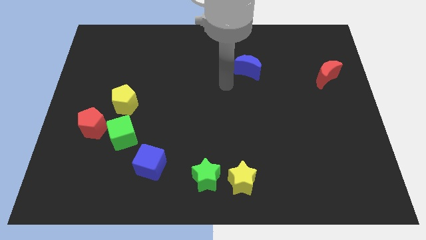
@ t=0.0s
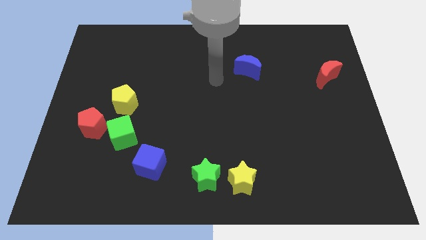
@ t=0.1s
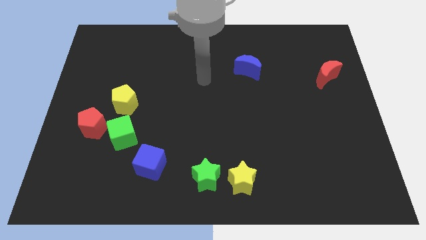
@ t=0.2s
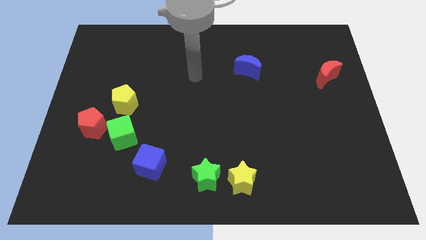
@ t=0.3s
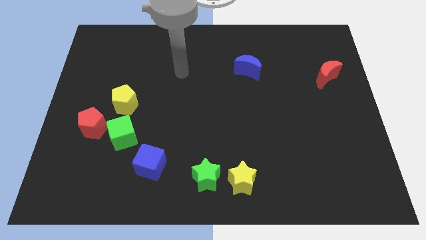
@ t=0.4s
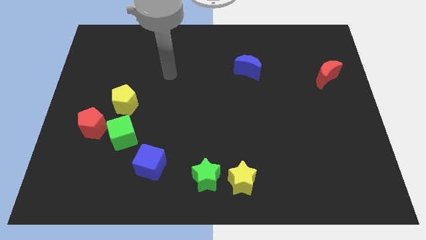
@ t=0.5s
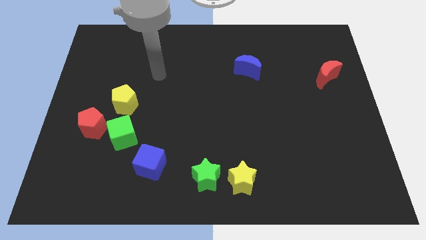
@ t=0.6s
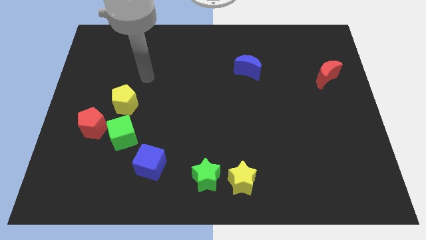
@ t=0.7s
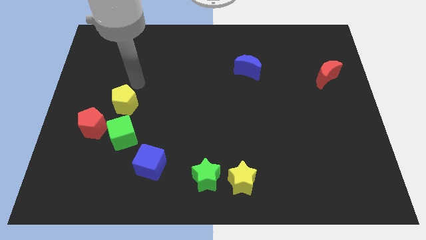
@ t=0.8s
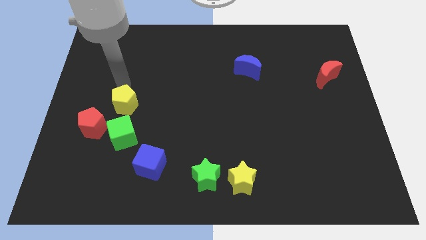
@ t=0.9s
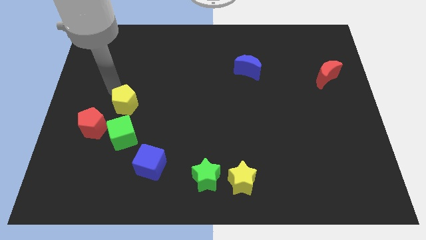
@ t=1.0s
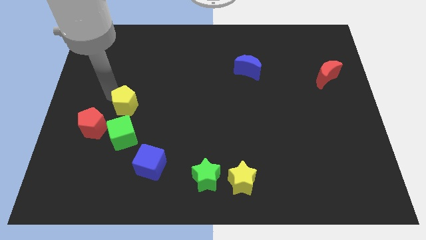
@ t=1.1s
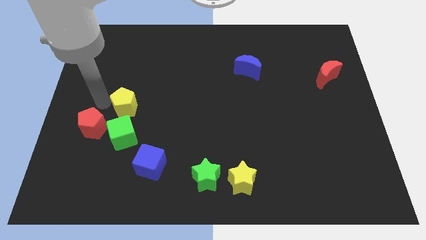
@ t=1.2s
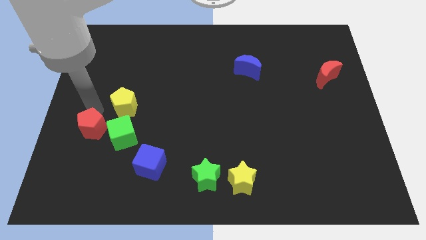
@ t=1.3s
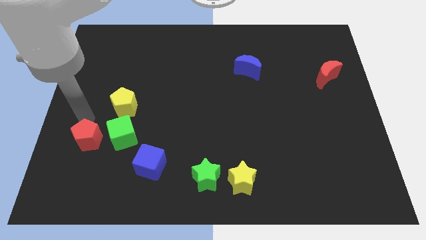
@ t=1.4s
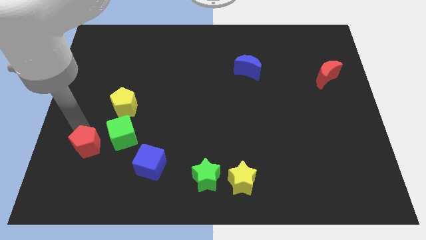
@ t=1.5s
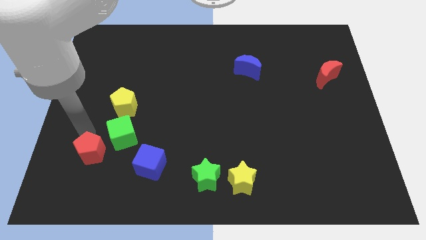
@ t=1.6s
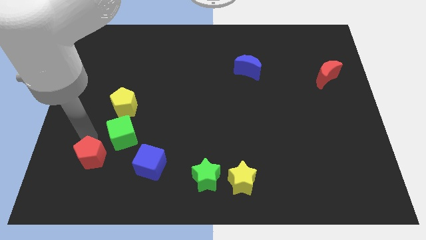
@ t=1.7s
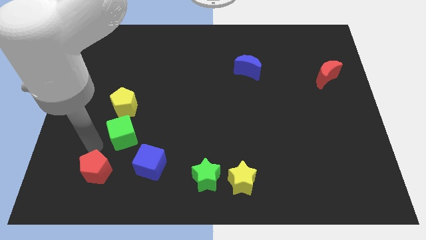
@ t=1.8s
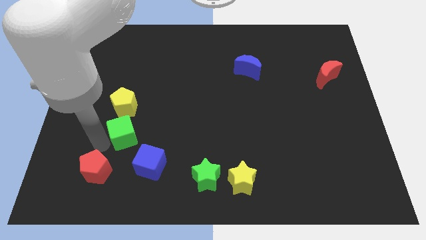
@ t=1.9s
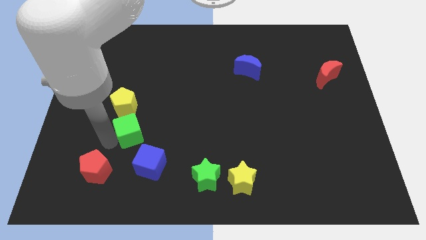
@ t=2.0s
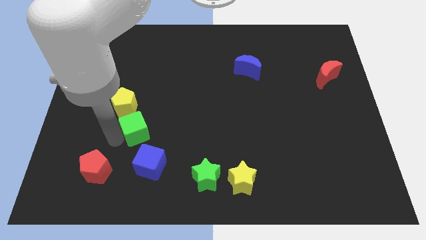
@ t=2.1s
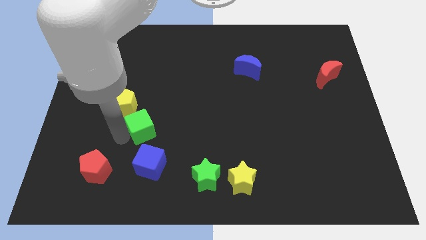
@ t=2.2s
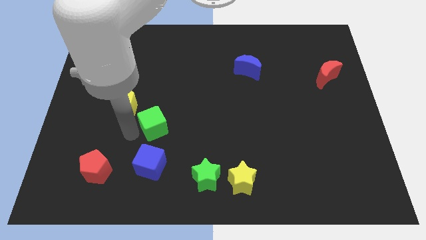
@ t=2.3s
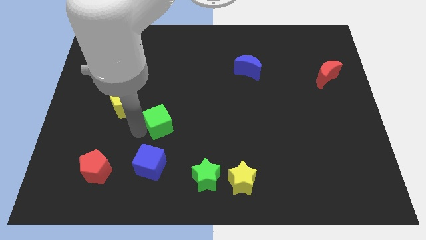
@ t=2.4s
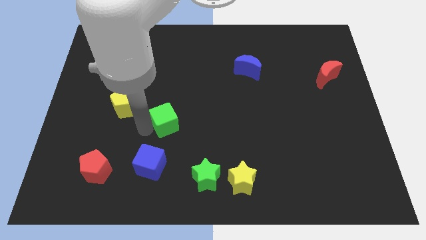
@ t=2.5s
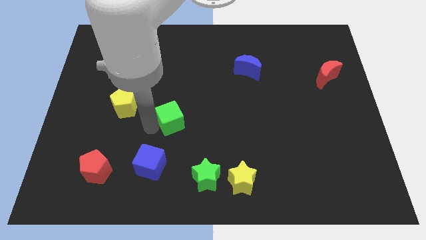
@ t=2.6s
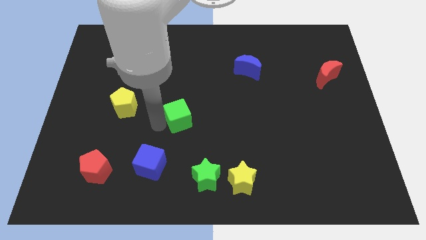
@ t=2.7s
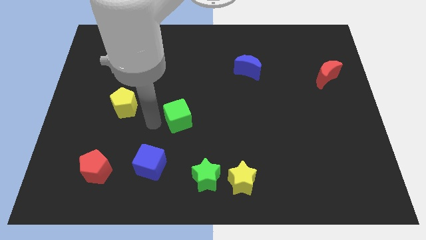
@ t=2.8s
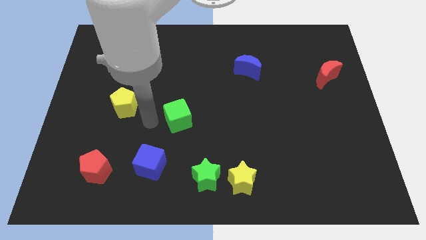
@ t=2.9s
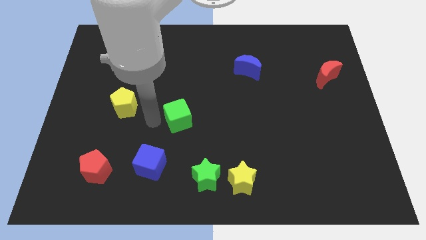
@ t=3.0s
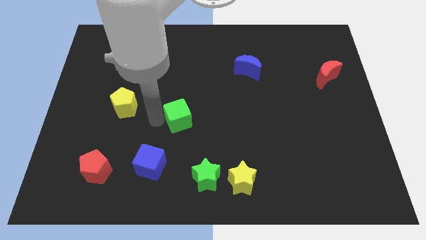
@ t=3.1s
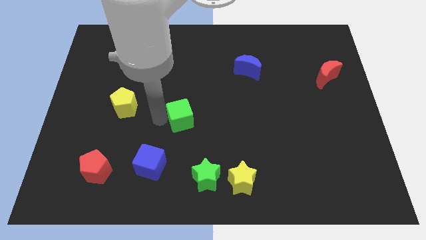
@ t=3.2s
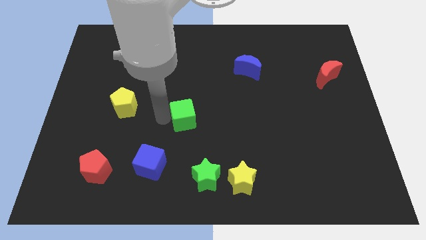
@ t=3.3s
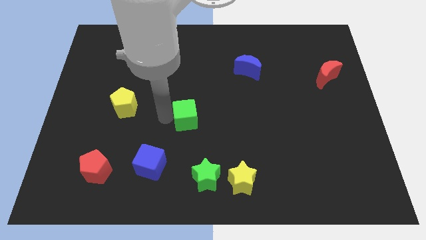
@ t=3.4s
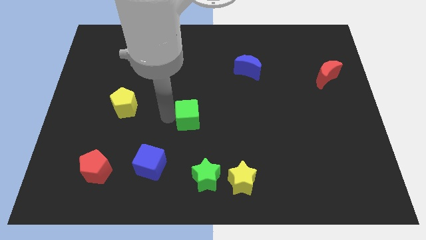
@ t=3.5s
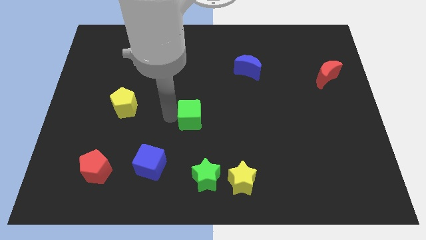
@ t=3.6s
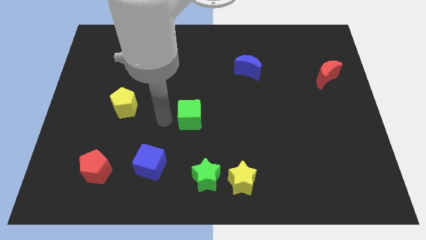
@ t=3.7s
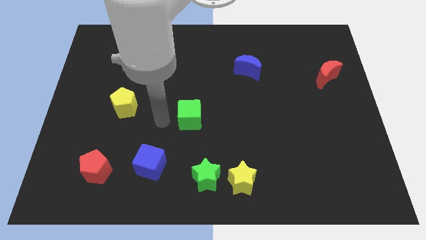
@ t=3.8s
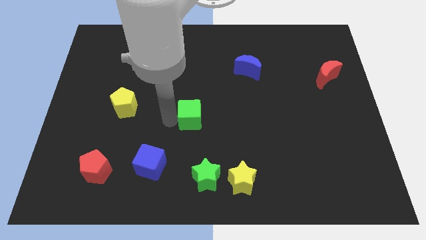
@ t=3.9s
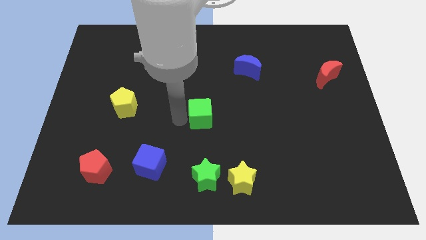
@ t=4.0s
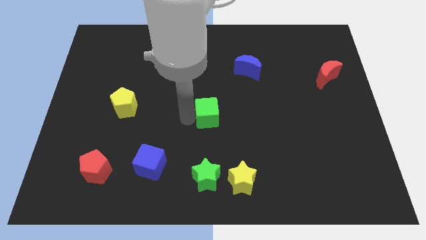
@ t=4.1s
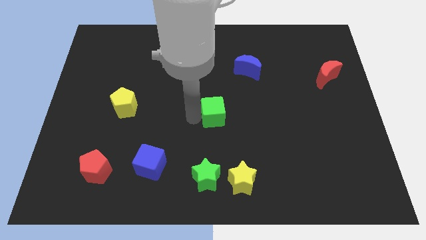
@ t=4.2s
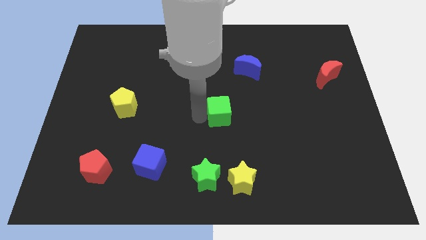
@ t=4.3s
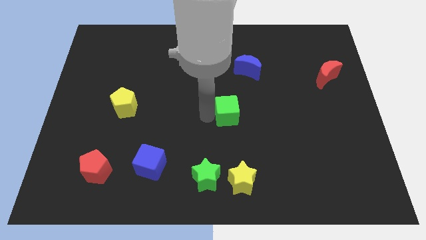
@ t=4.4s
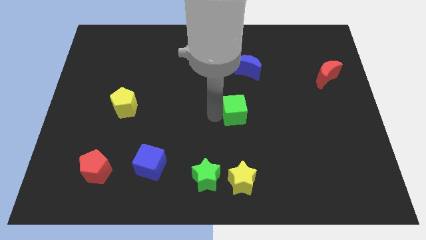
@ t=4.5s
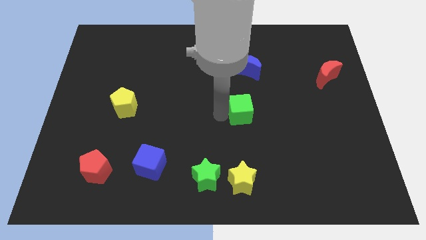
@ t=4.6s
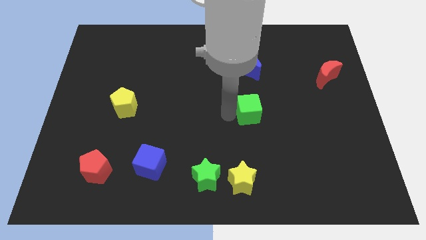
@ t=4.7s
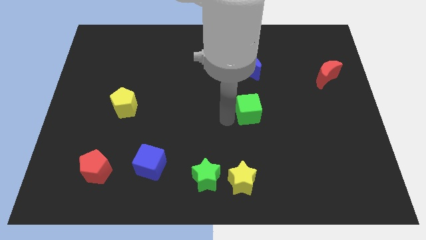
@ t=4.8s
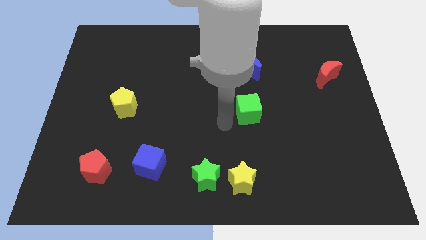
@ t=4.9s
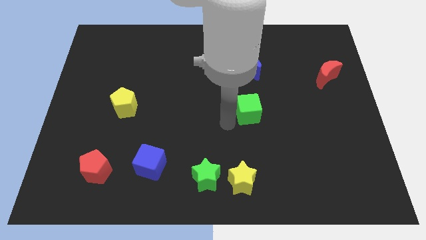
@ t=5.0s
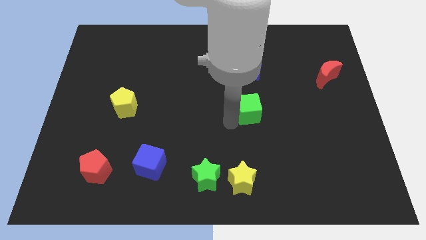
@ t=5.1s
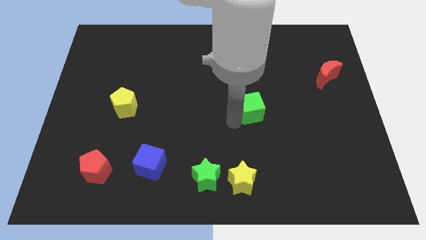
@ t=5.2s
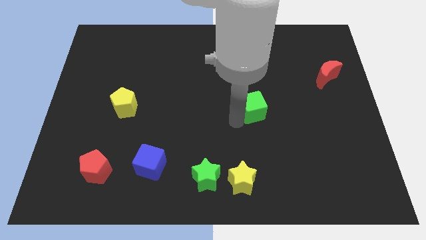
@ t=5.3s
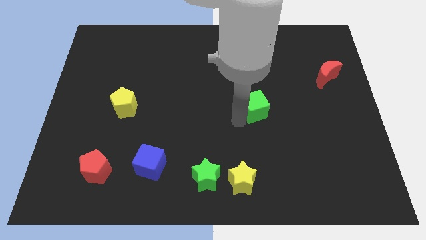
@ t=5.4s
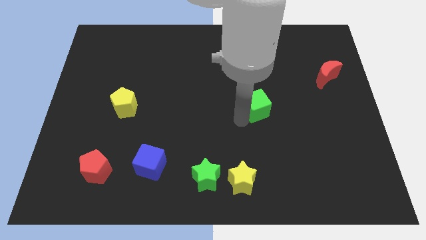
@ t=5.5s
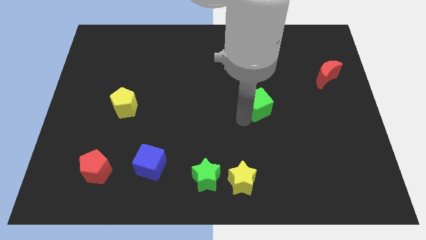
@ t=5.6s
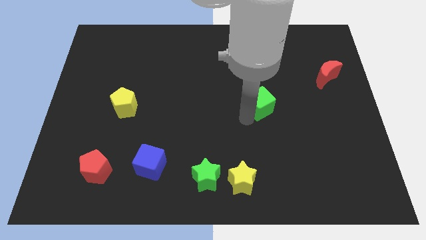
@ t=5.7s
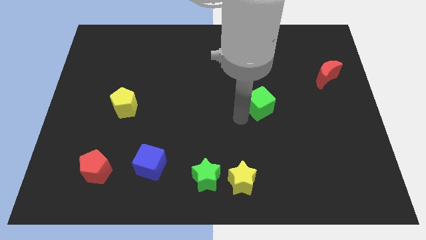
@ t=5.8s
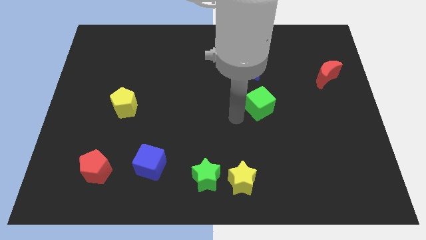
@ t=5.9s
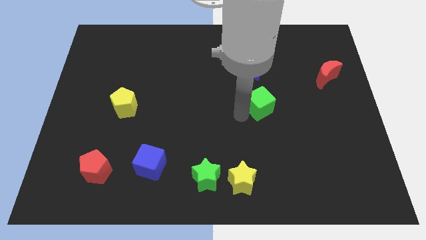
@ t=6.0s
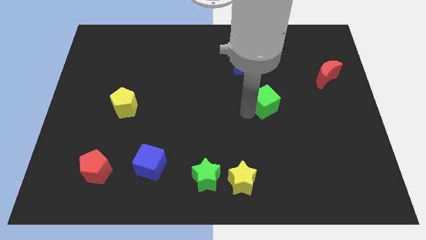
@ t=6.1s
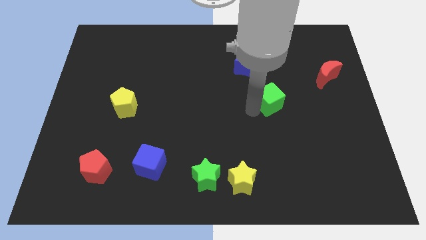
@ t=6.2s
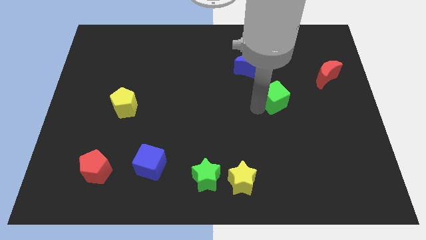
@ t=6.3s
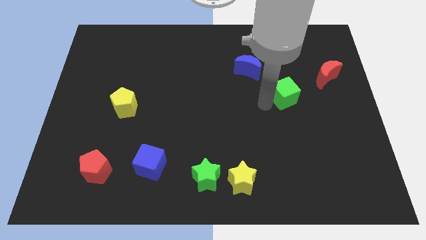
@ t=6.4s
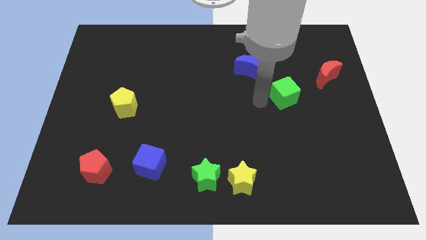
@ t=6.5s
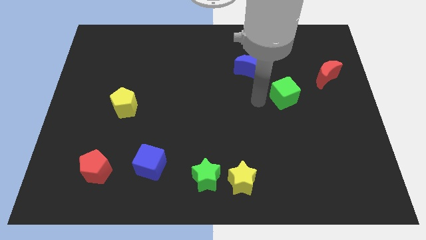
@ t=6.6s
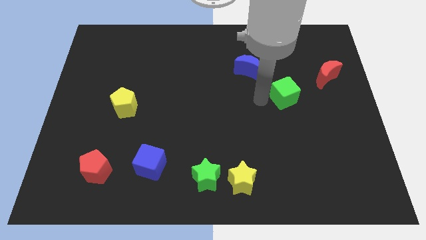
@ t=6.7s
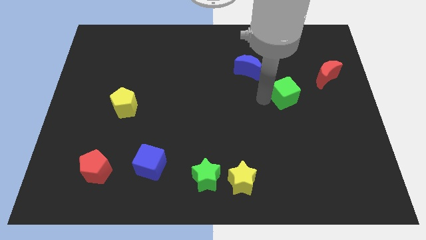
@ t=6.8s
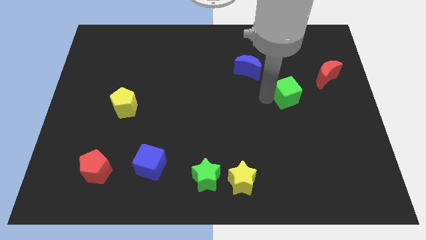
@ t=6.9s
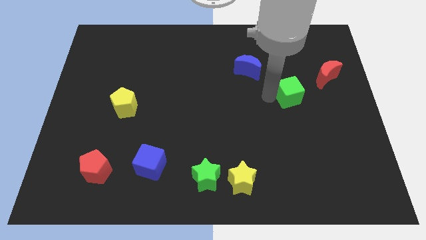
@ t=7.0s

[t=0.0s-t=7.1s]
move the green cube to the bottom left of the red moon
